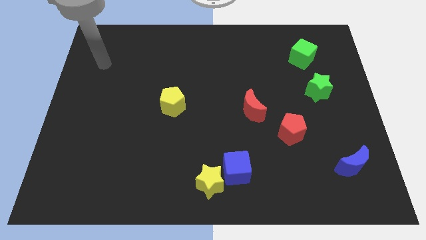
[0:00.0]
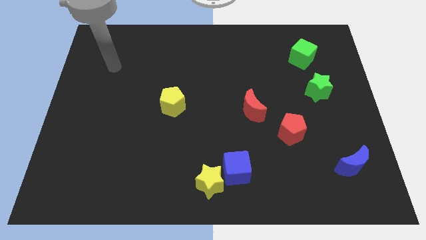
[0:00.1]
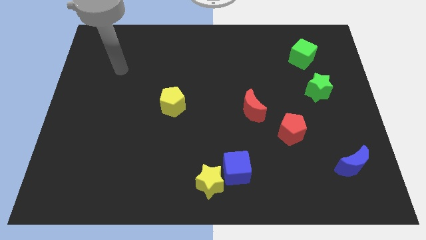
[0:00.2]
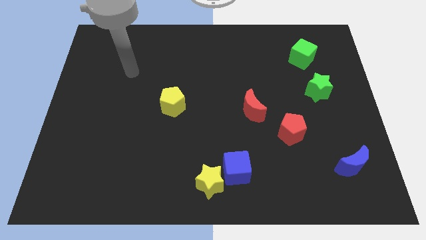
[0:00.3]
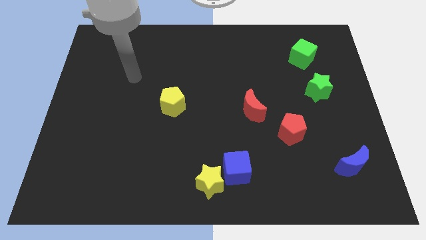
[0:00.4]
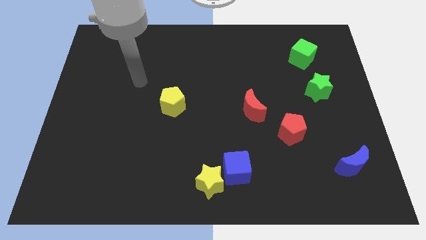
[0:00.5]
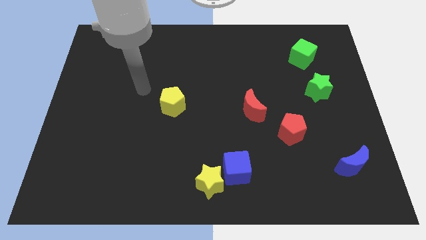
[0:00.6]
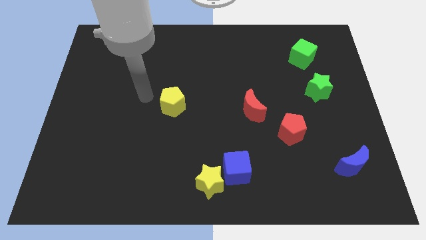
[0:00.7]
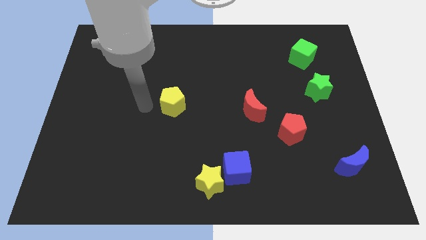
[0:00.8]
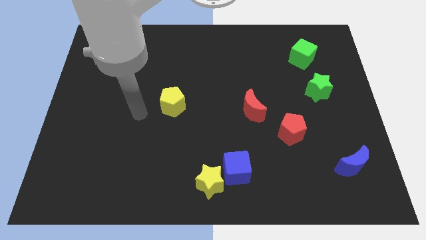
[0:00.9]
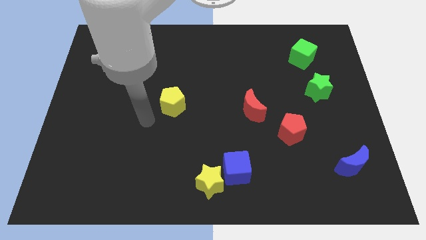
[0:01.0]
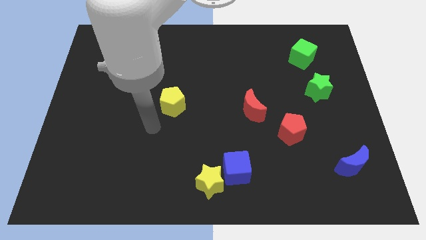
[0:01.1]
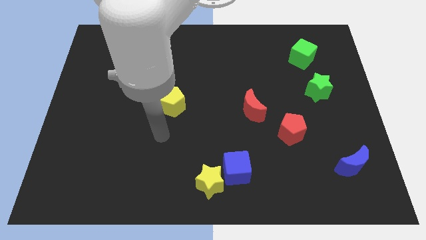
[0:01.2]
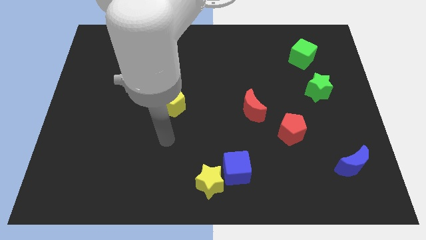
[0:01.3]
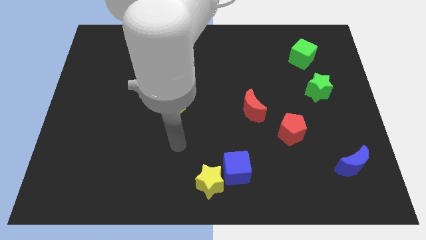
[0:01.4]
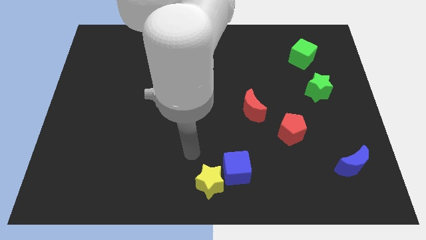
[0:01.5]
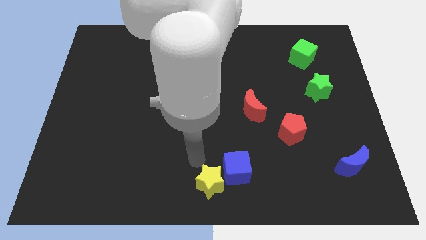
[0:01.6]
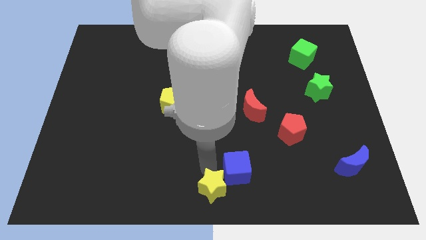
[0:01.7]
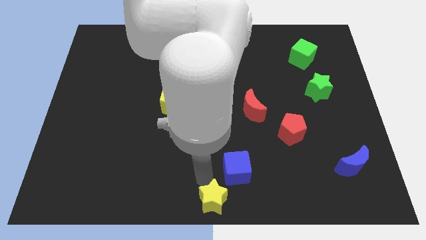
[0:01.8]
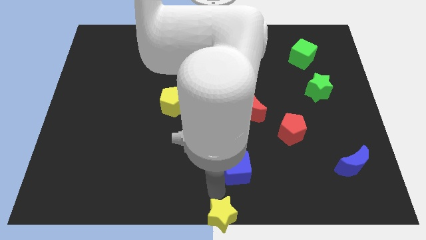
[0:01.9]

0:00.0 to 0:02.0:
move the blue cube away from the yellow star

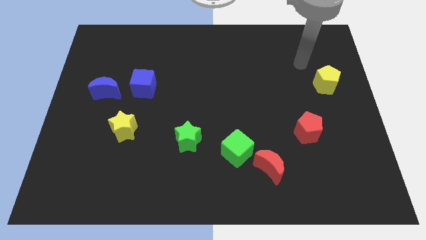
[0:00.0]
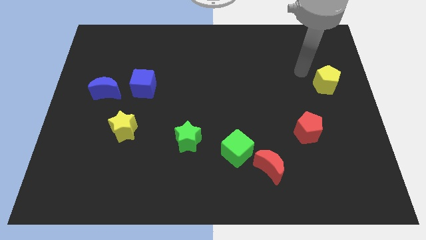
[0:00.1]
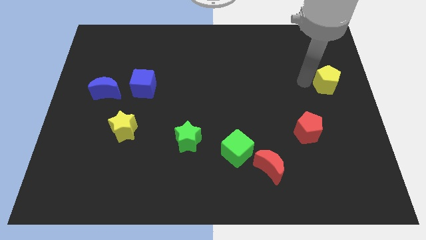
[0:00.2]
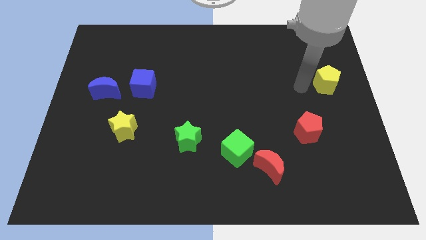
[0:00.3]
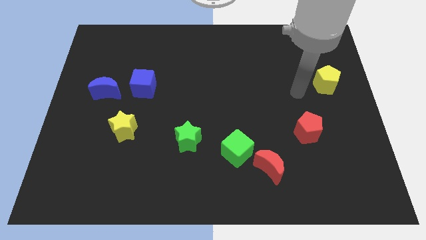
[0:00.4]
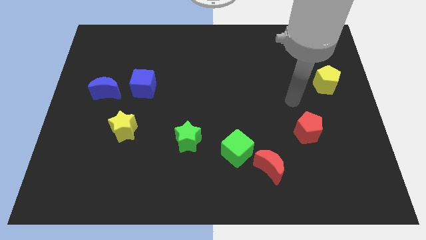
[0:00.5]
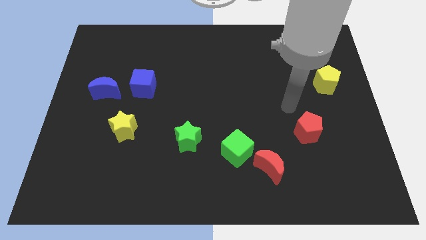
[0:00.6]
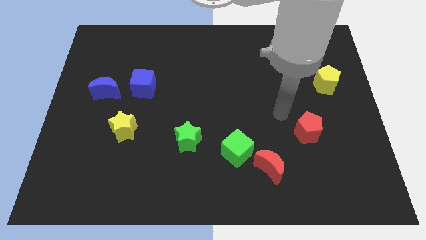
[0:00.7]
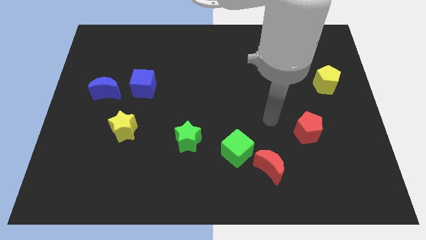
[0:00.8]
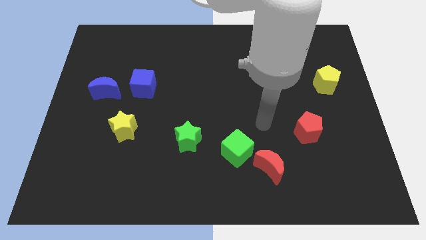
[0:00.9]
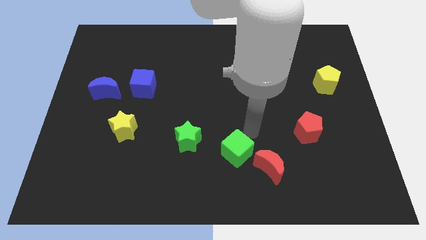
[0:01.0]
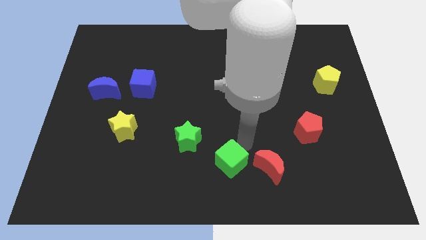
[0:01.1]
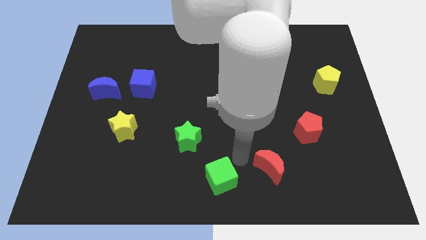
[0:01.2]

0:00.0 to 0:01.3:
separate the red moon from the green cube

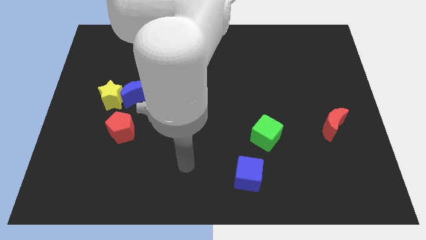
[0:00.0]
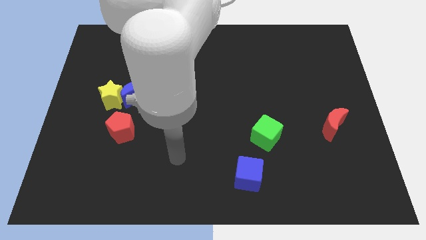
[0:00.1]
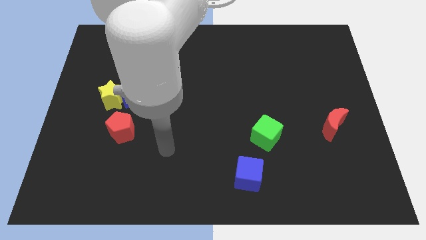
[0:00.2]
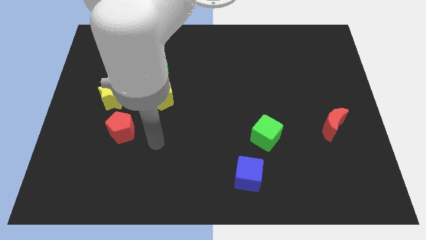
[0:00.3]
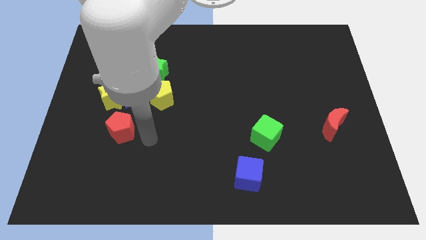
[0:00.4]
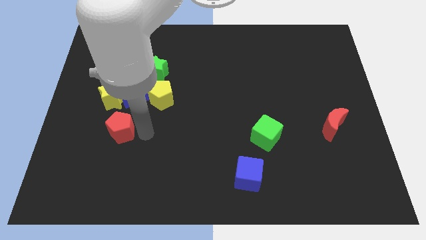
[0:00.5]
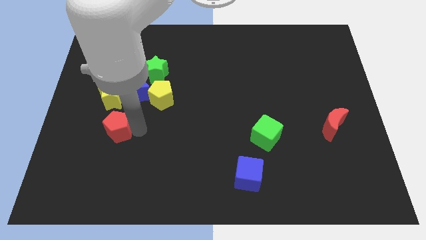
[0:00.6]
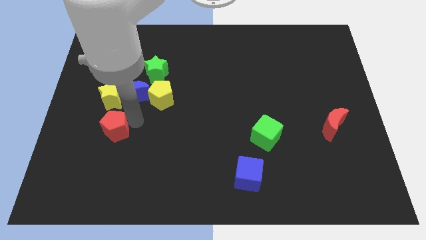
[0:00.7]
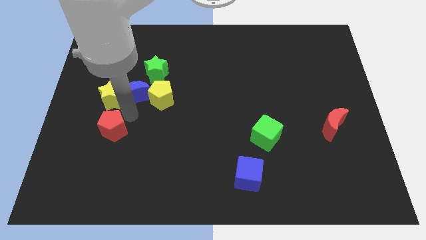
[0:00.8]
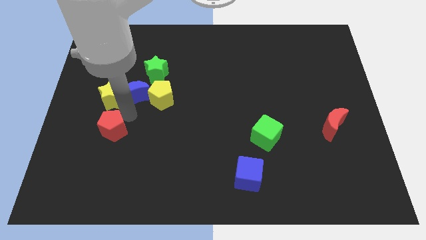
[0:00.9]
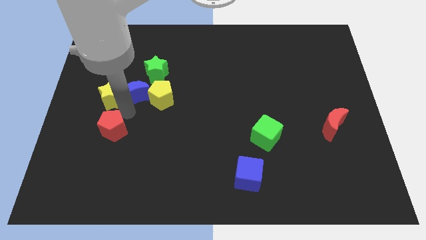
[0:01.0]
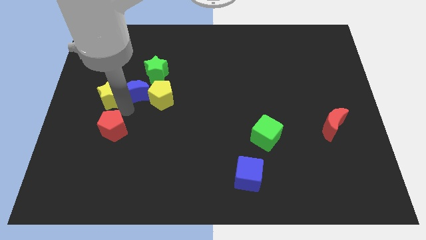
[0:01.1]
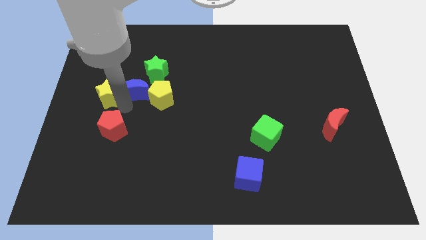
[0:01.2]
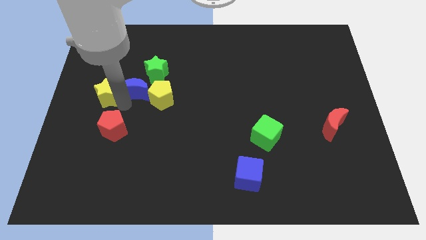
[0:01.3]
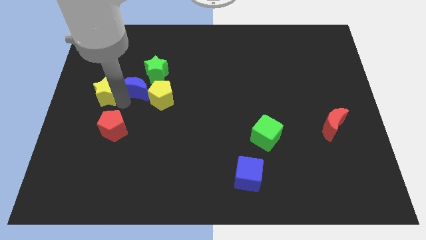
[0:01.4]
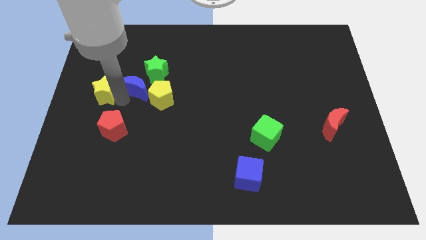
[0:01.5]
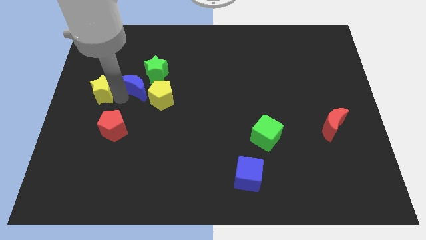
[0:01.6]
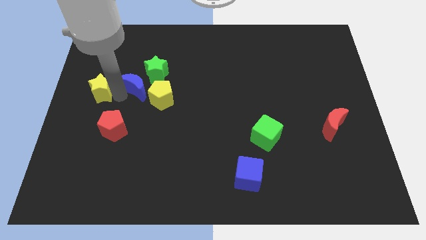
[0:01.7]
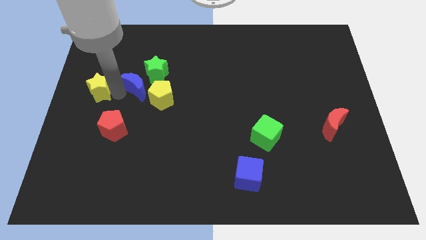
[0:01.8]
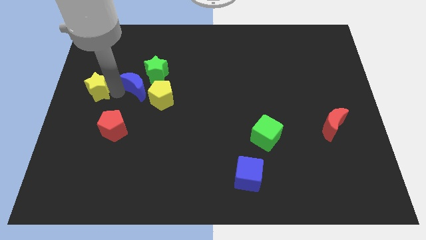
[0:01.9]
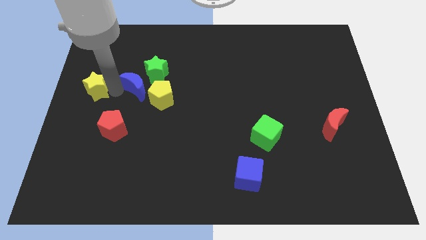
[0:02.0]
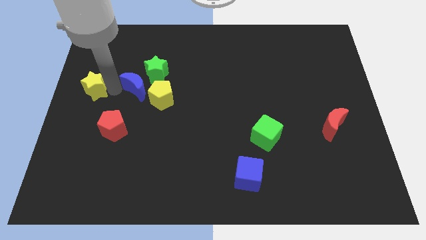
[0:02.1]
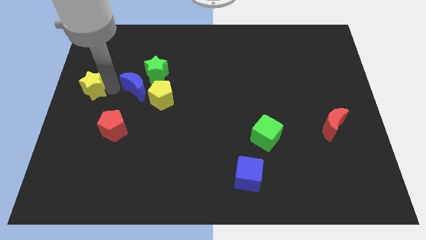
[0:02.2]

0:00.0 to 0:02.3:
separate the yellow star from the blue moon and red pentagon

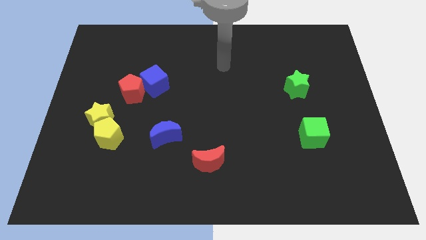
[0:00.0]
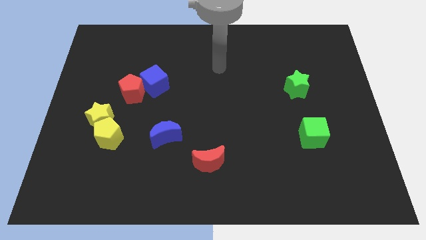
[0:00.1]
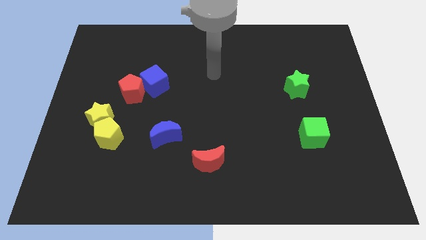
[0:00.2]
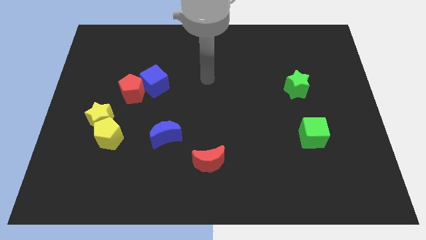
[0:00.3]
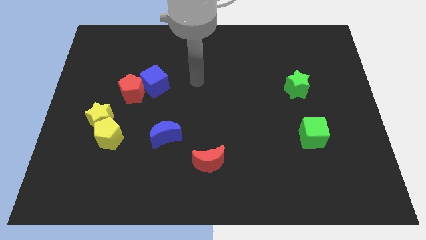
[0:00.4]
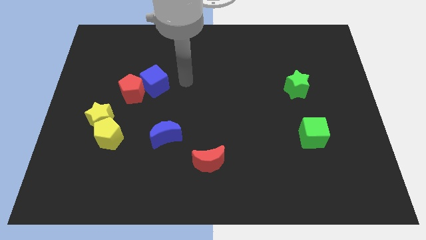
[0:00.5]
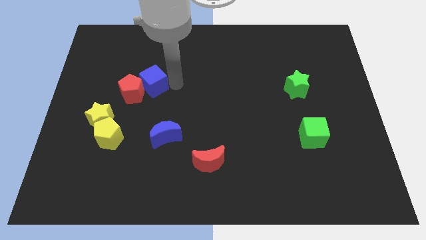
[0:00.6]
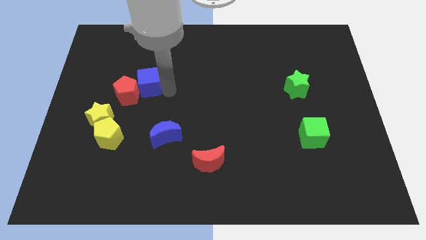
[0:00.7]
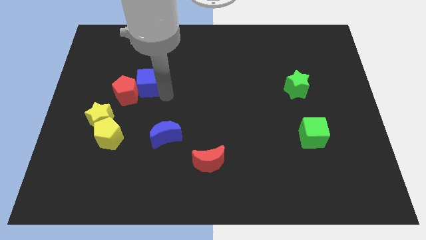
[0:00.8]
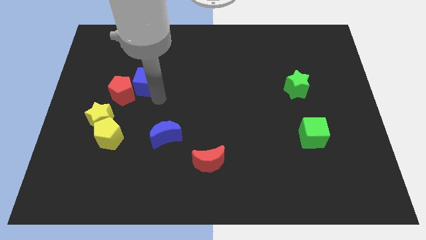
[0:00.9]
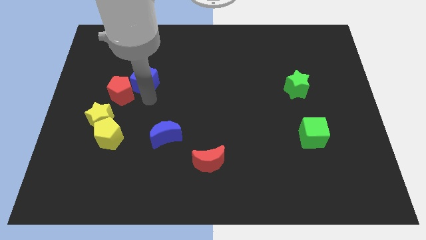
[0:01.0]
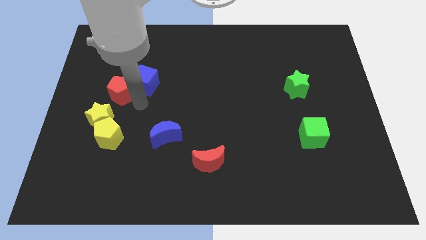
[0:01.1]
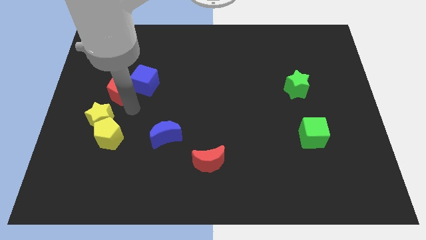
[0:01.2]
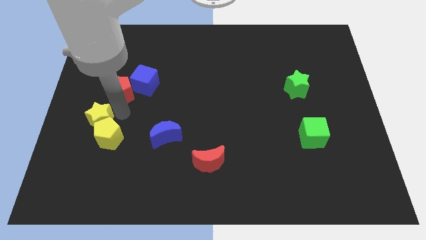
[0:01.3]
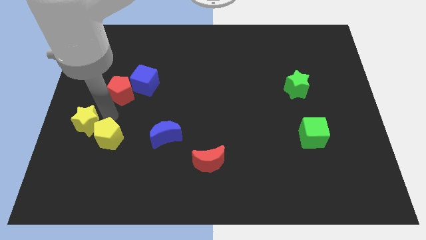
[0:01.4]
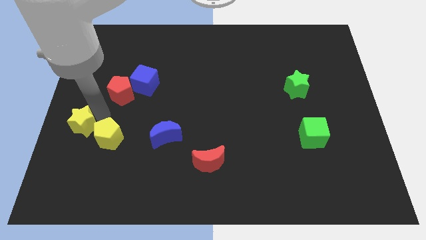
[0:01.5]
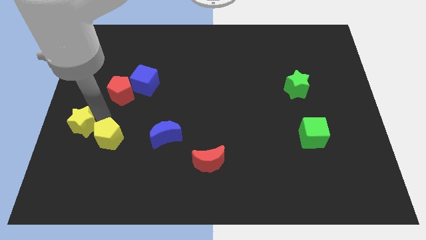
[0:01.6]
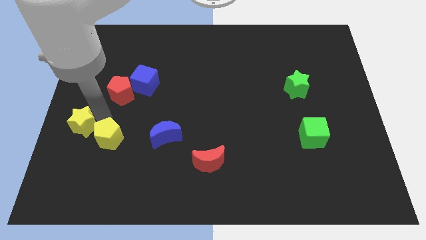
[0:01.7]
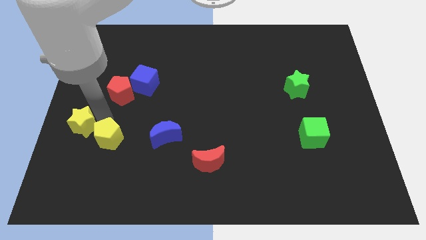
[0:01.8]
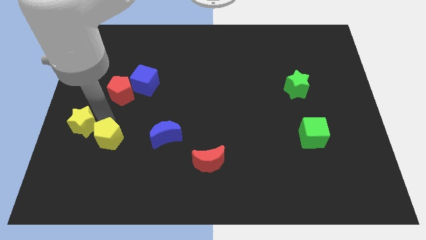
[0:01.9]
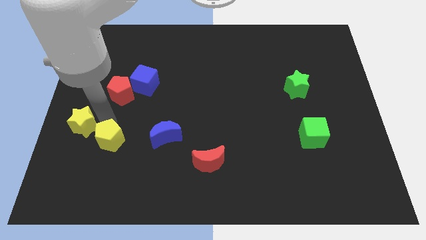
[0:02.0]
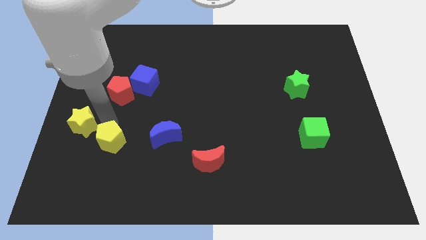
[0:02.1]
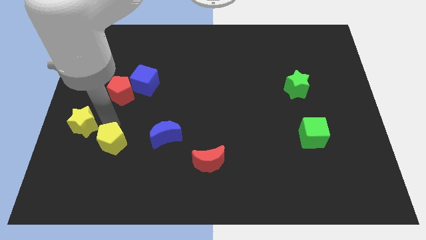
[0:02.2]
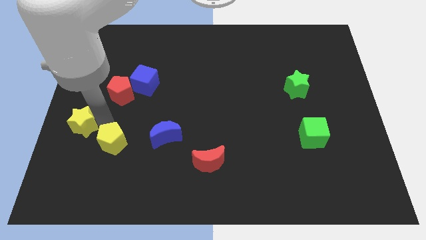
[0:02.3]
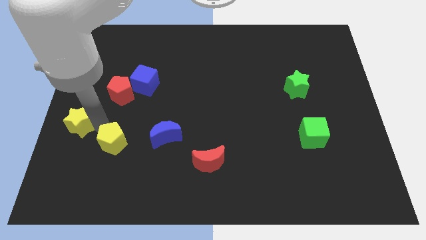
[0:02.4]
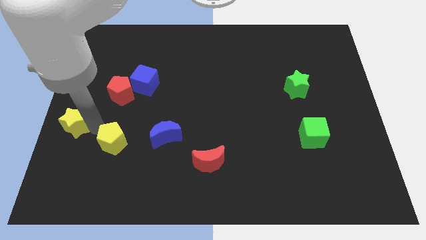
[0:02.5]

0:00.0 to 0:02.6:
pull the yellow pentagon apart from the yellow star

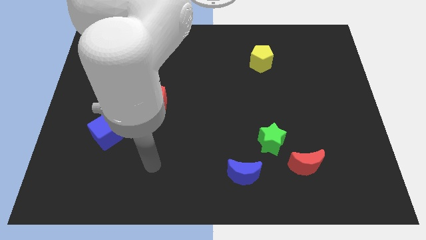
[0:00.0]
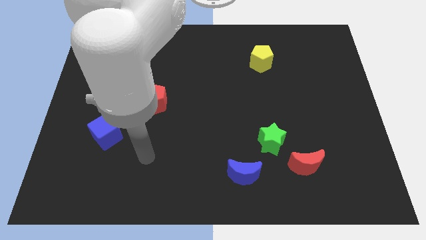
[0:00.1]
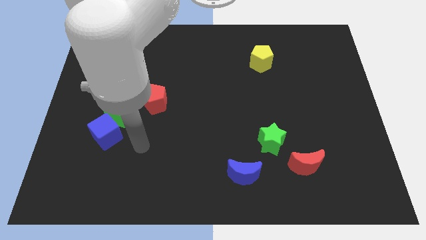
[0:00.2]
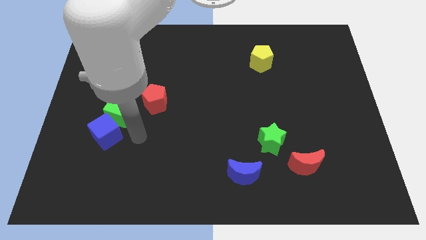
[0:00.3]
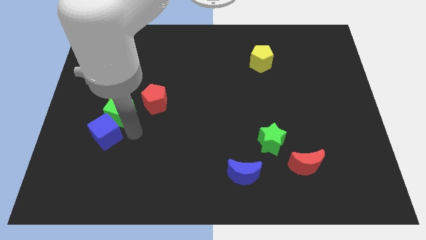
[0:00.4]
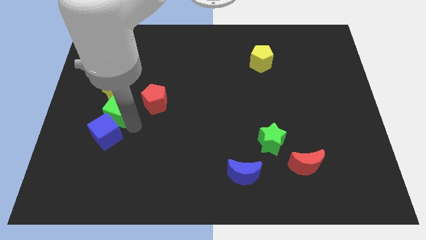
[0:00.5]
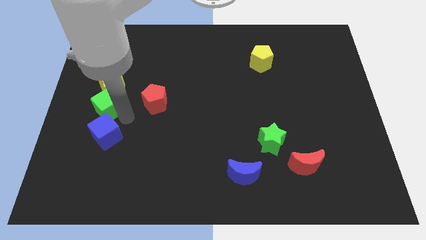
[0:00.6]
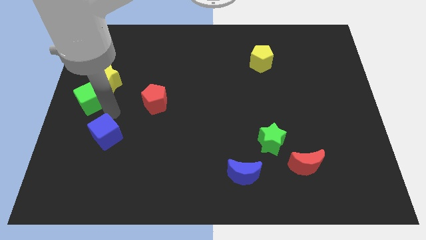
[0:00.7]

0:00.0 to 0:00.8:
pull the blue cube apart from the green cube
